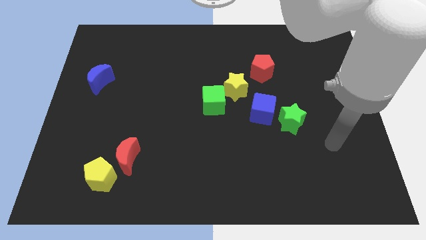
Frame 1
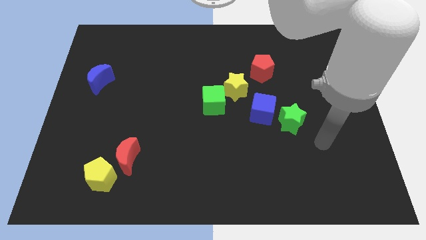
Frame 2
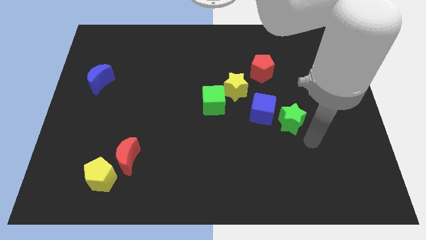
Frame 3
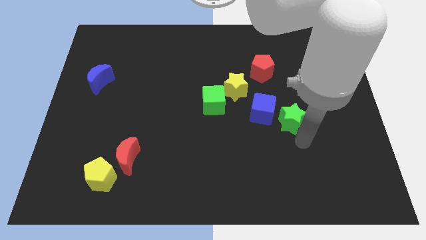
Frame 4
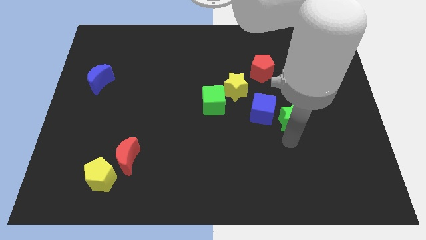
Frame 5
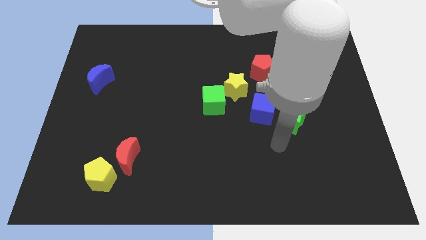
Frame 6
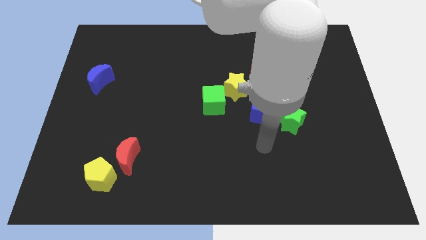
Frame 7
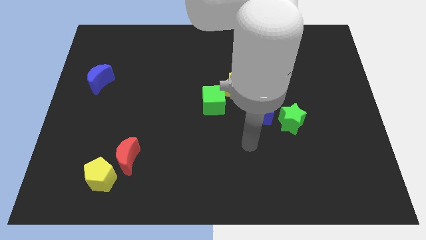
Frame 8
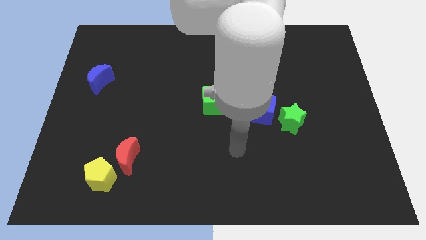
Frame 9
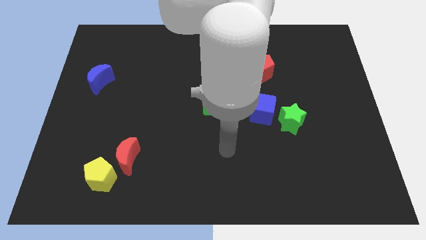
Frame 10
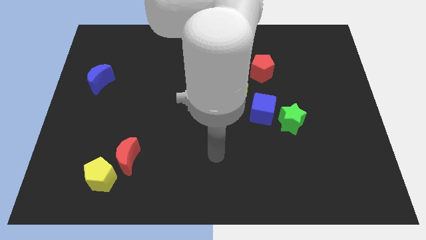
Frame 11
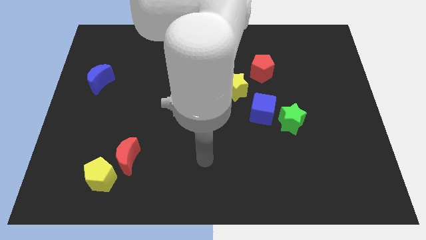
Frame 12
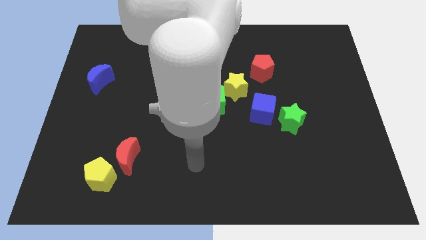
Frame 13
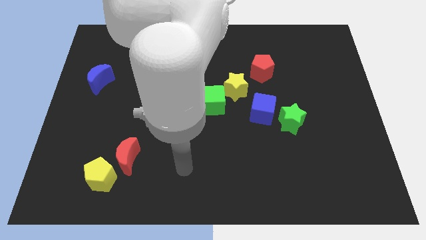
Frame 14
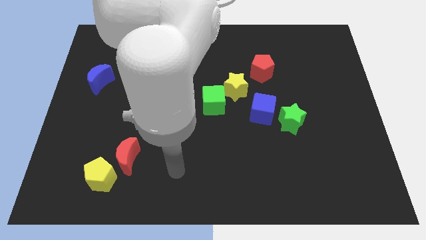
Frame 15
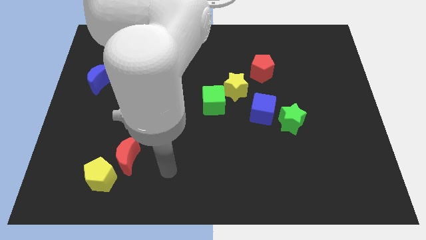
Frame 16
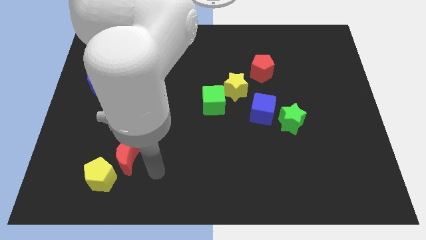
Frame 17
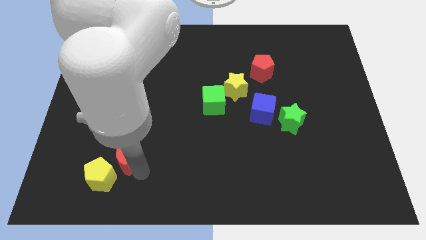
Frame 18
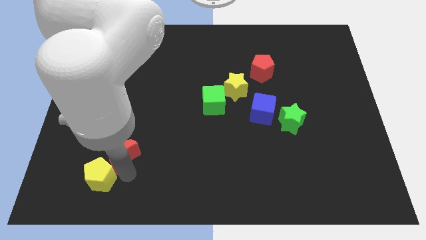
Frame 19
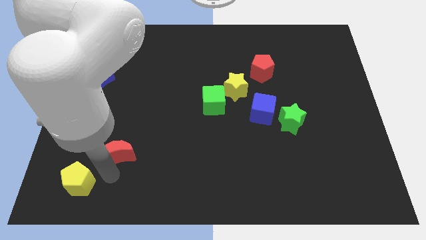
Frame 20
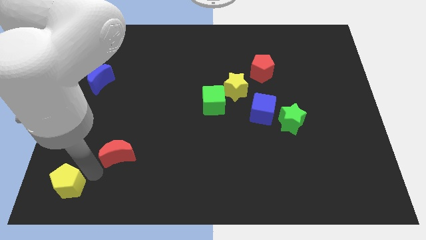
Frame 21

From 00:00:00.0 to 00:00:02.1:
separate the red moon from the yellow pentagon

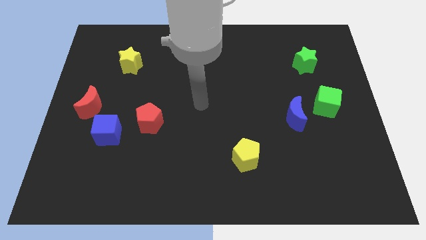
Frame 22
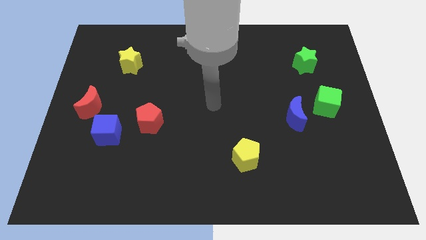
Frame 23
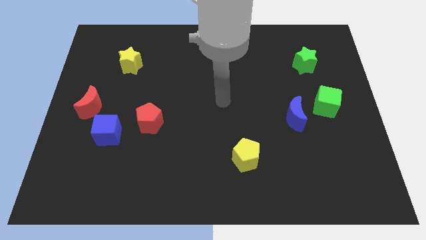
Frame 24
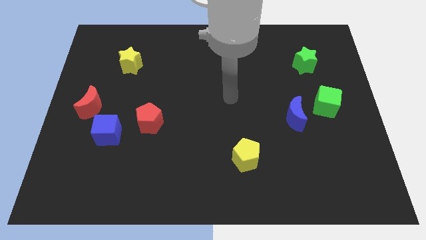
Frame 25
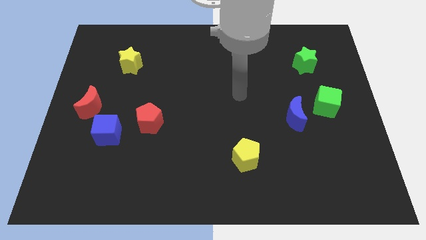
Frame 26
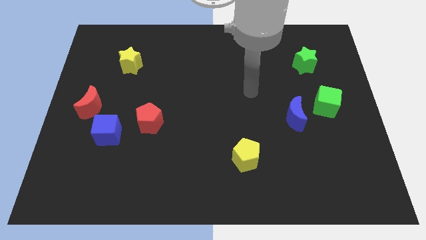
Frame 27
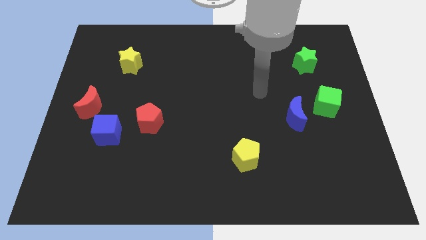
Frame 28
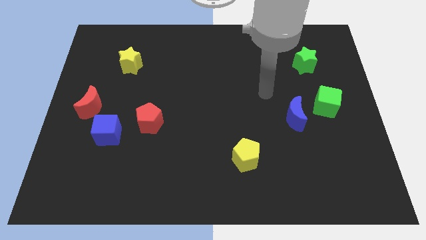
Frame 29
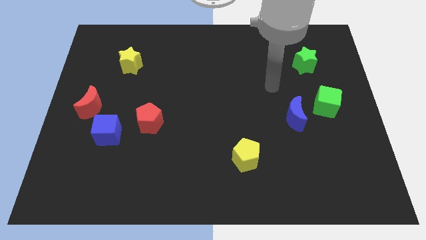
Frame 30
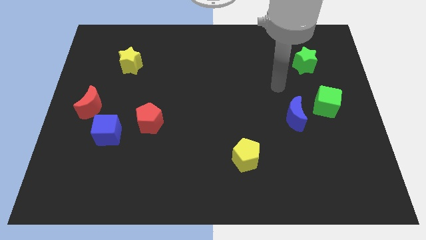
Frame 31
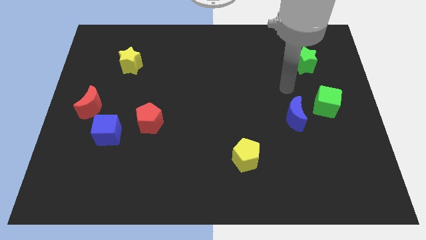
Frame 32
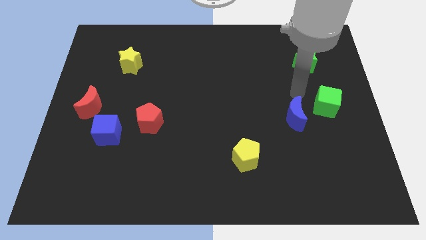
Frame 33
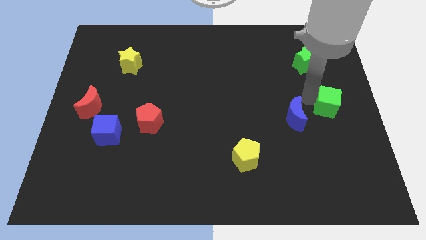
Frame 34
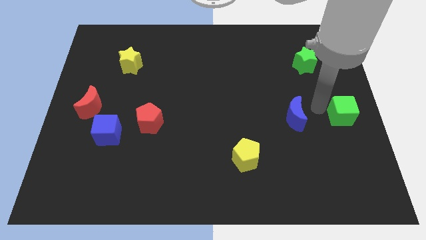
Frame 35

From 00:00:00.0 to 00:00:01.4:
move the blue moon away from the green cube

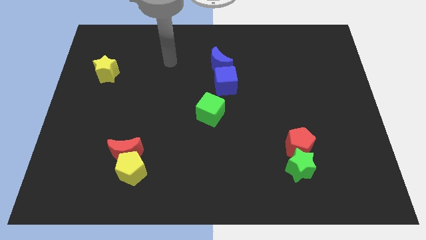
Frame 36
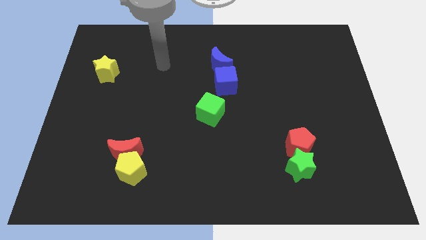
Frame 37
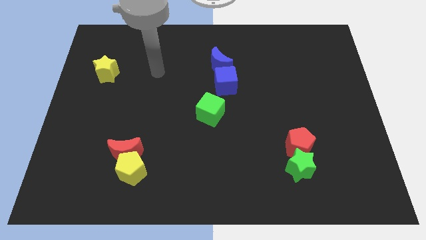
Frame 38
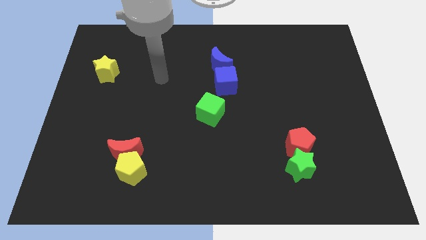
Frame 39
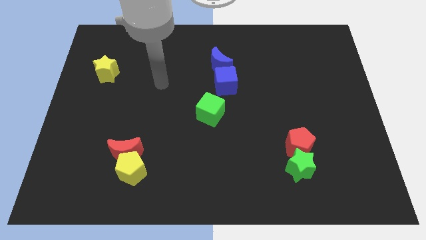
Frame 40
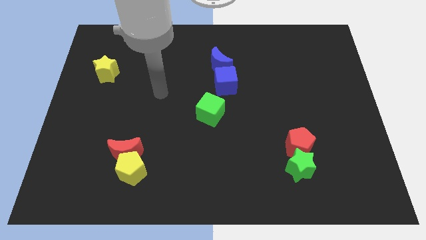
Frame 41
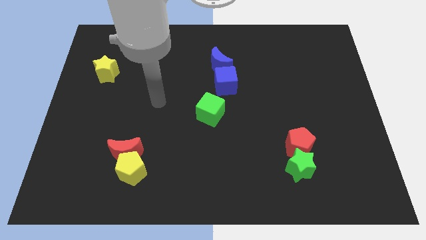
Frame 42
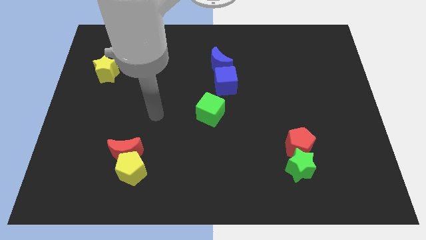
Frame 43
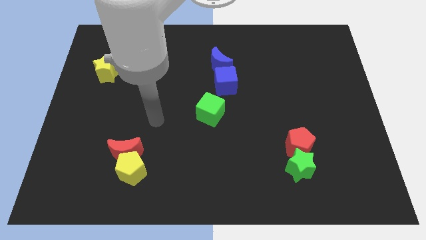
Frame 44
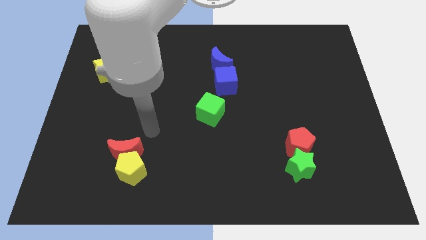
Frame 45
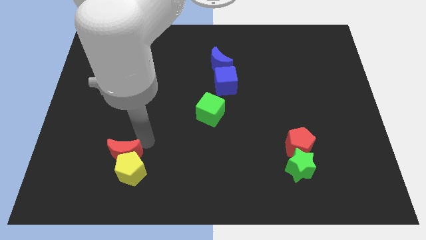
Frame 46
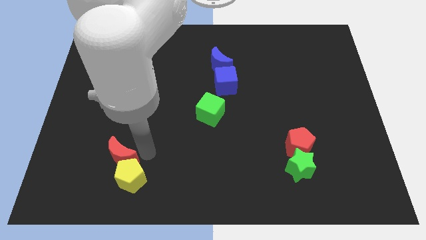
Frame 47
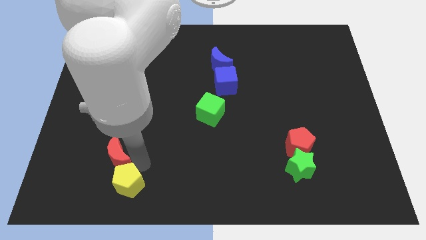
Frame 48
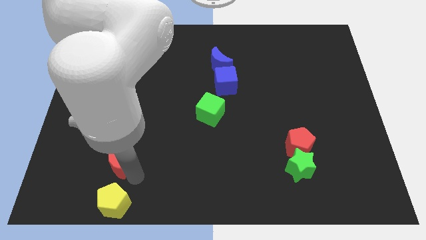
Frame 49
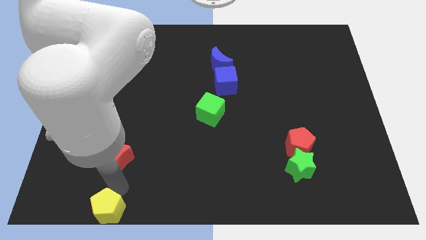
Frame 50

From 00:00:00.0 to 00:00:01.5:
pull the red moon apart from the yellow pentagon

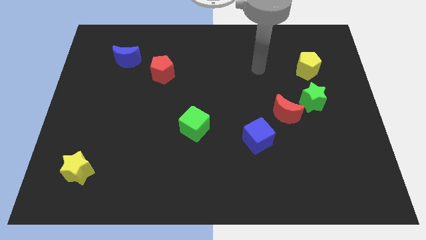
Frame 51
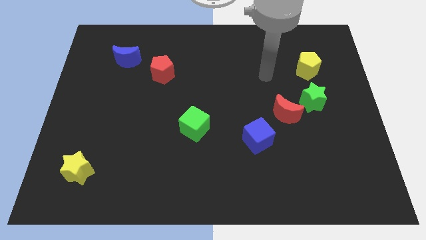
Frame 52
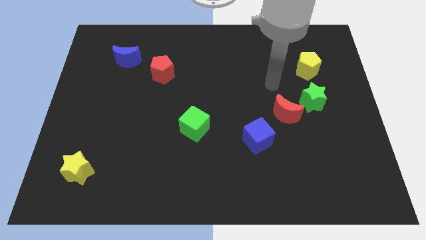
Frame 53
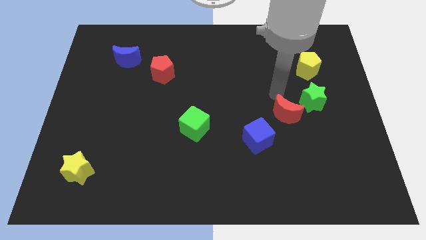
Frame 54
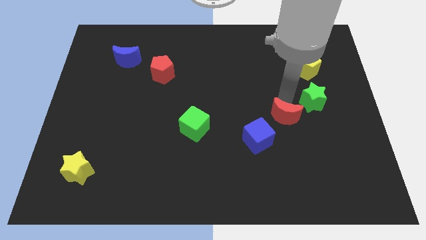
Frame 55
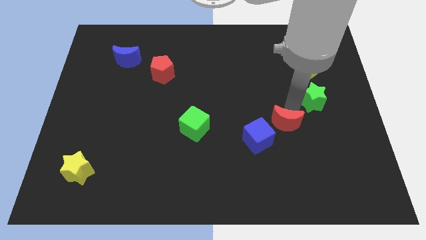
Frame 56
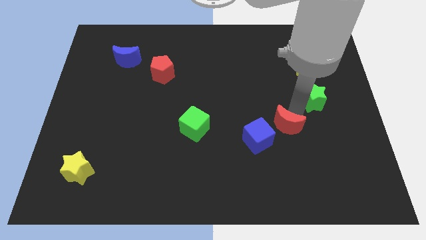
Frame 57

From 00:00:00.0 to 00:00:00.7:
move the green star away from the red moon

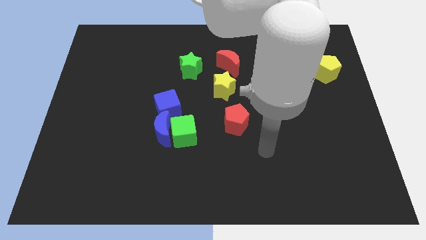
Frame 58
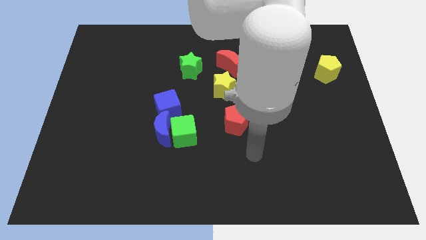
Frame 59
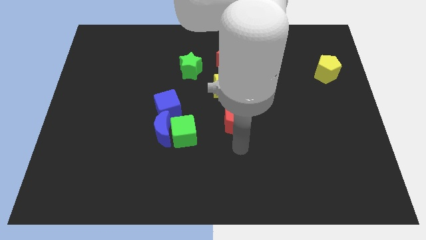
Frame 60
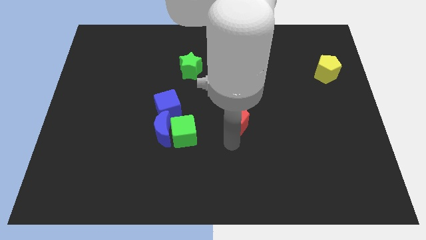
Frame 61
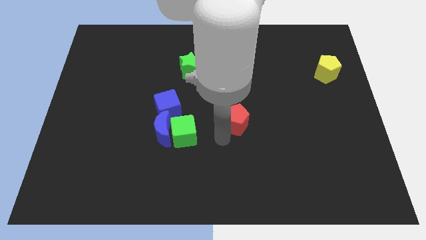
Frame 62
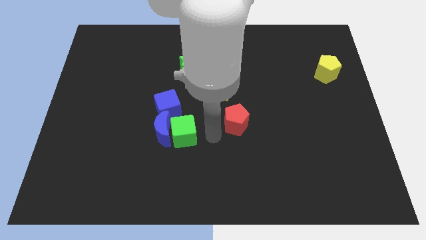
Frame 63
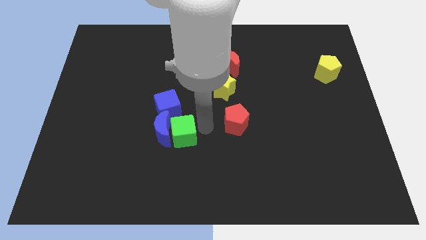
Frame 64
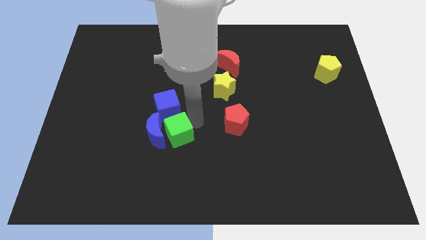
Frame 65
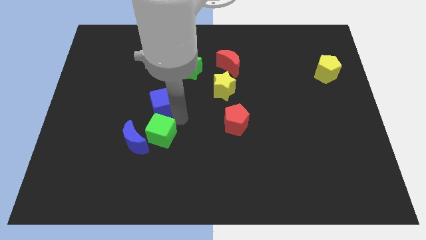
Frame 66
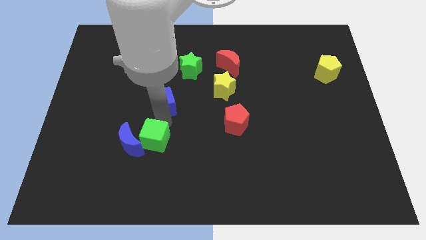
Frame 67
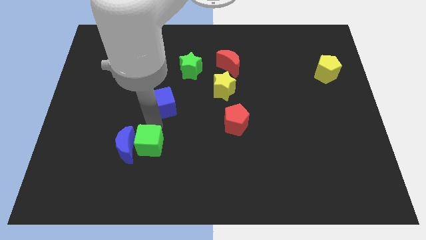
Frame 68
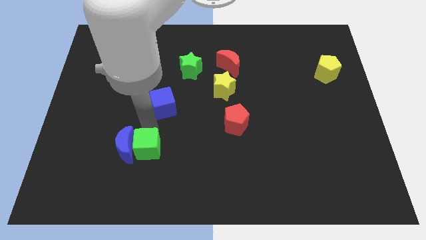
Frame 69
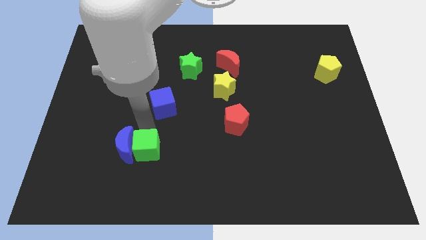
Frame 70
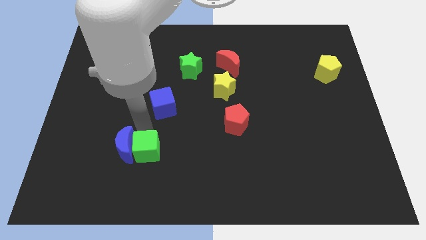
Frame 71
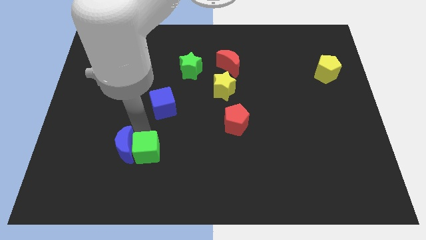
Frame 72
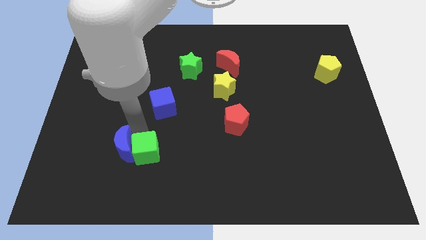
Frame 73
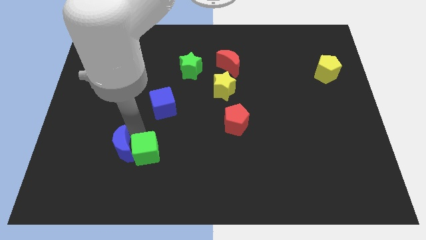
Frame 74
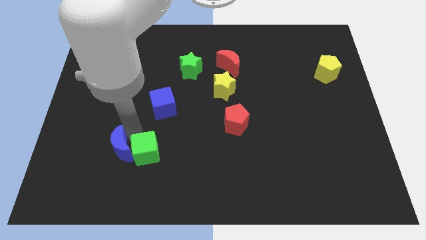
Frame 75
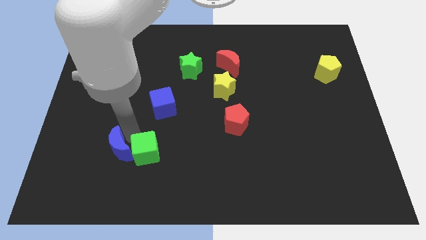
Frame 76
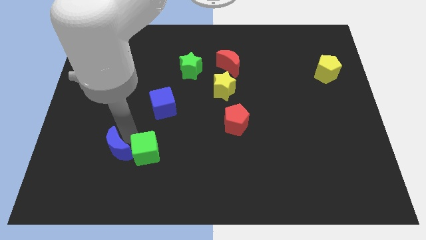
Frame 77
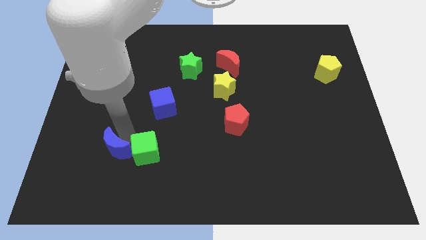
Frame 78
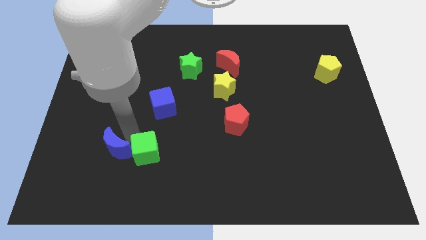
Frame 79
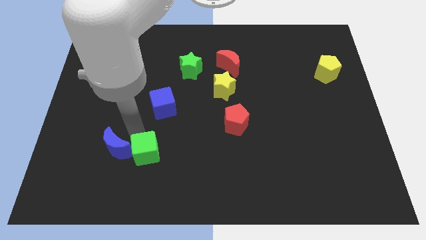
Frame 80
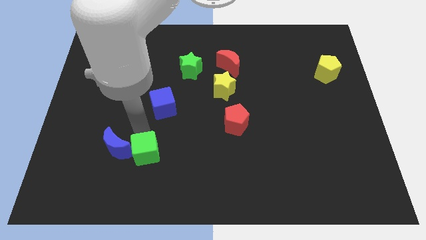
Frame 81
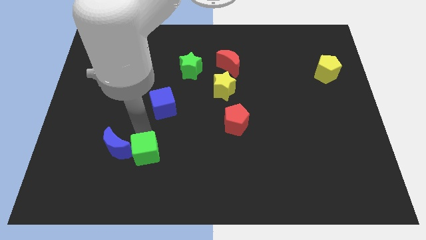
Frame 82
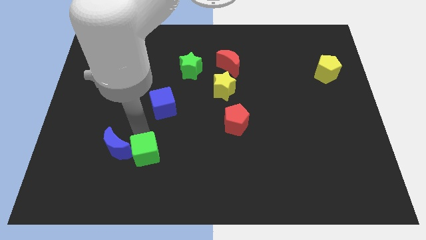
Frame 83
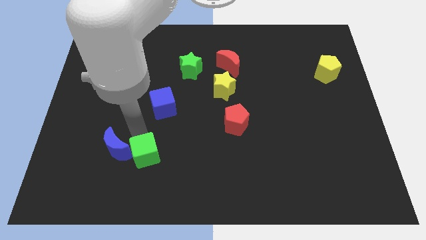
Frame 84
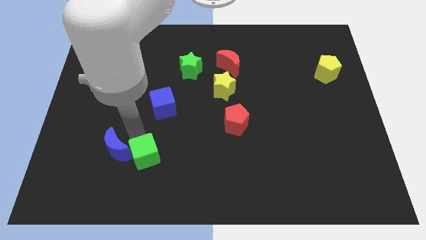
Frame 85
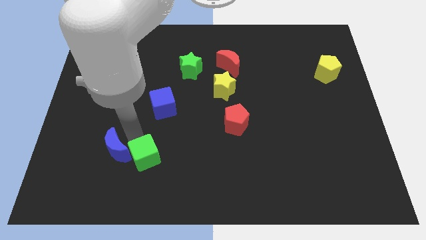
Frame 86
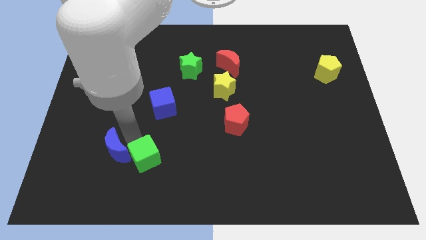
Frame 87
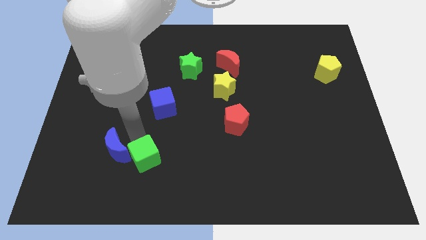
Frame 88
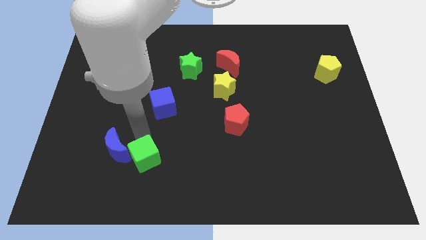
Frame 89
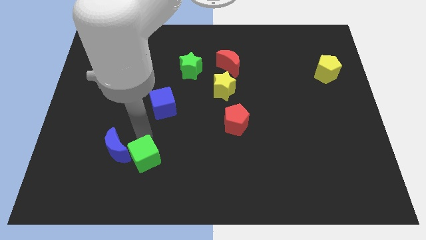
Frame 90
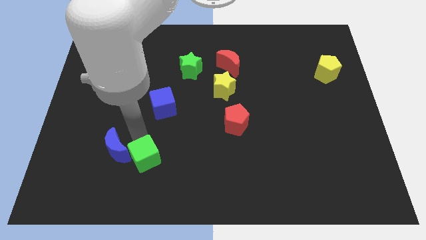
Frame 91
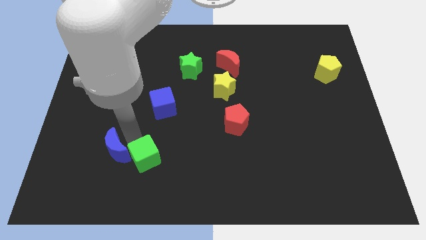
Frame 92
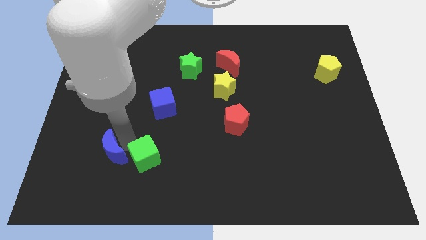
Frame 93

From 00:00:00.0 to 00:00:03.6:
pull the blue moon apart from the green cube and blue cube
